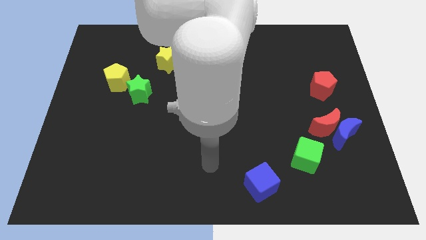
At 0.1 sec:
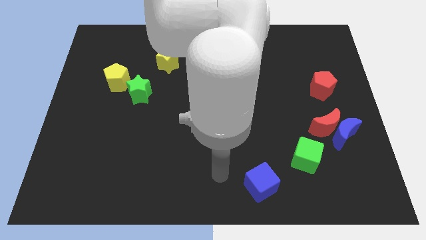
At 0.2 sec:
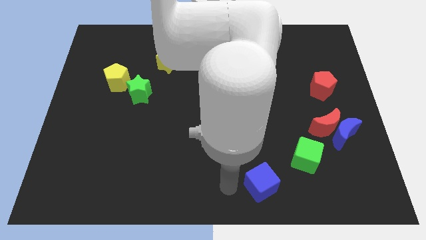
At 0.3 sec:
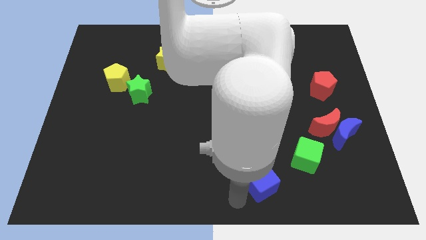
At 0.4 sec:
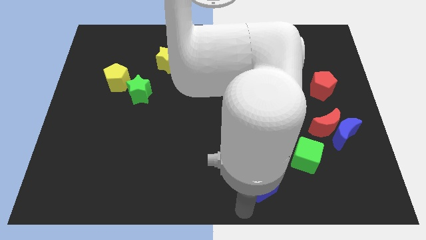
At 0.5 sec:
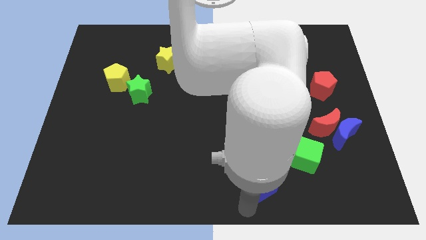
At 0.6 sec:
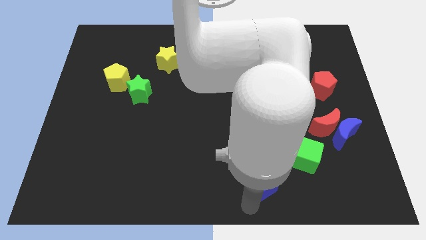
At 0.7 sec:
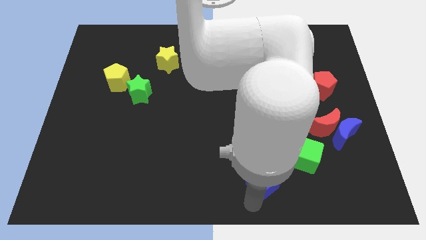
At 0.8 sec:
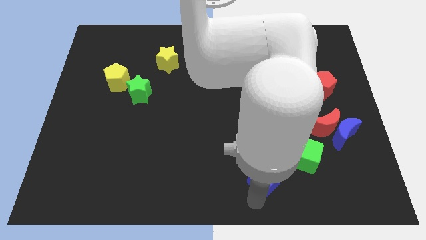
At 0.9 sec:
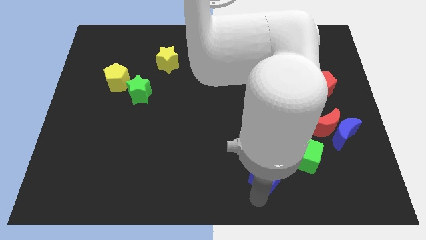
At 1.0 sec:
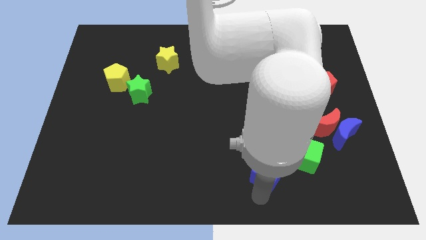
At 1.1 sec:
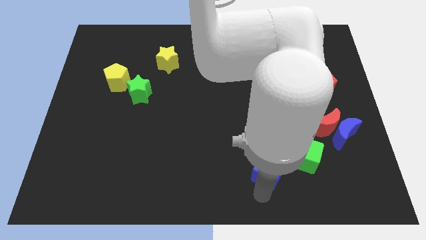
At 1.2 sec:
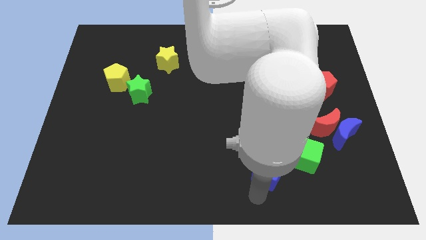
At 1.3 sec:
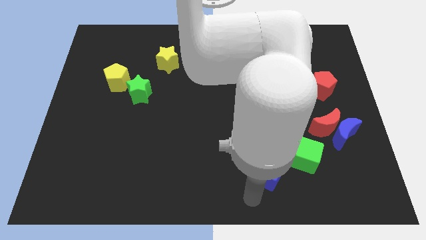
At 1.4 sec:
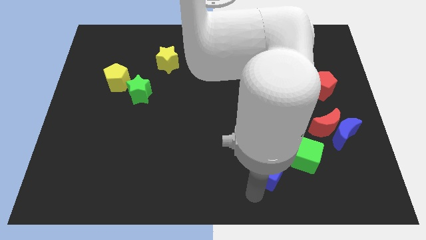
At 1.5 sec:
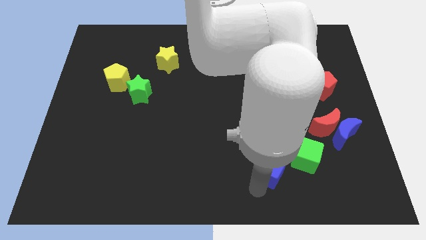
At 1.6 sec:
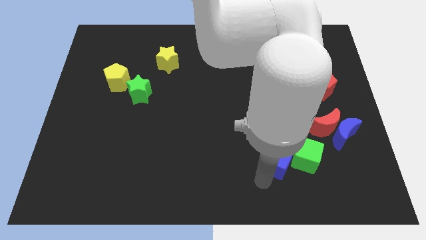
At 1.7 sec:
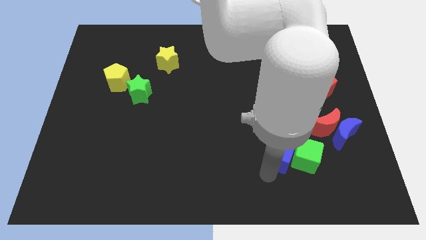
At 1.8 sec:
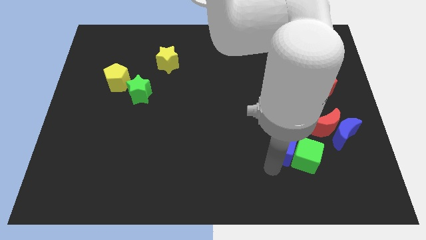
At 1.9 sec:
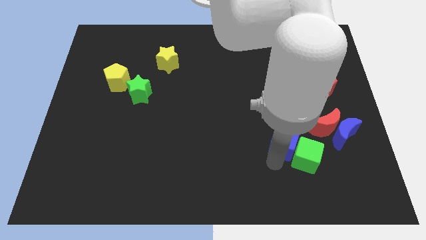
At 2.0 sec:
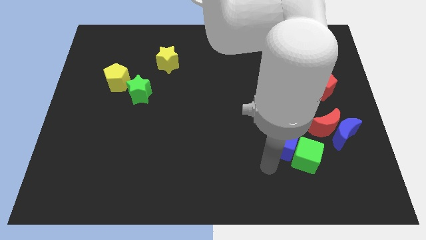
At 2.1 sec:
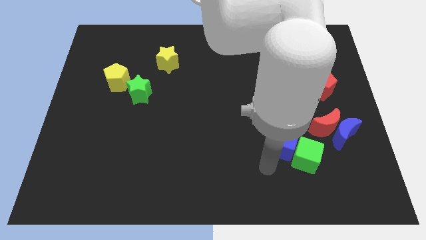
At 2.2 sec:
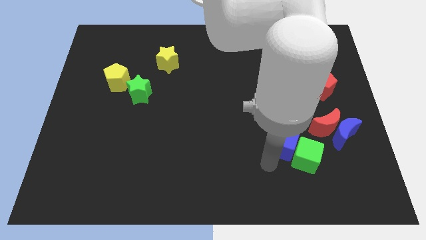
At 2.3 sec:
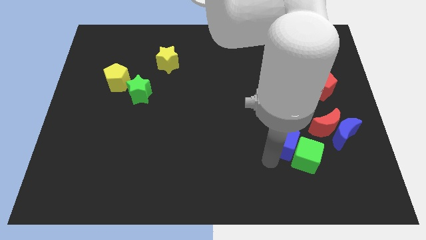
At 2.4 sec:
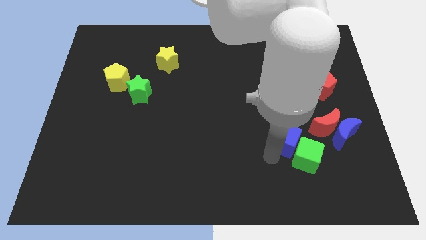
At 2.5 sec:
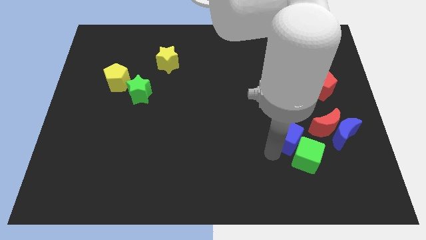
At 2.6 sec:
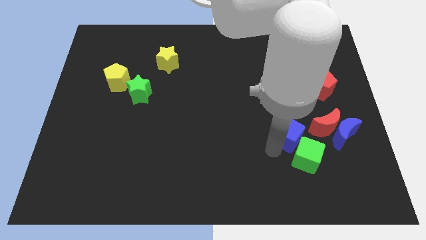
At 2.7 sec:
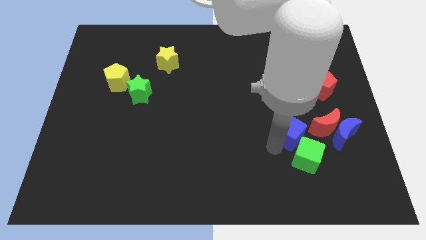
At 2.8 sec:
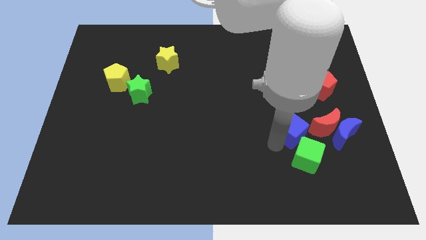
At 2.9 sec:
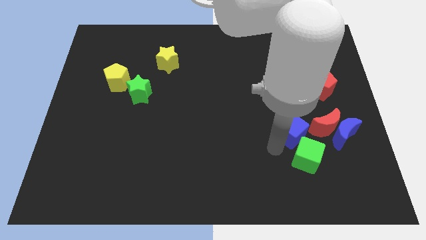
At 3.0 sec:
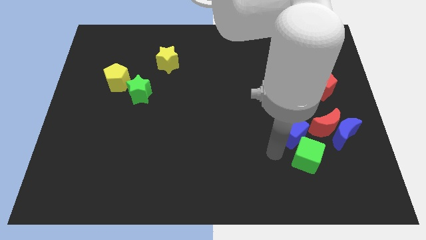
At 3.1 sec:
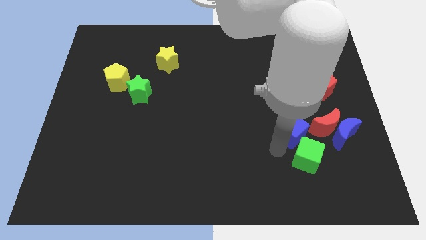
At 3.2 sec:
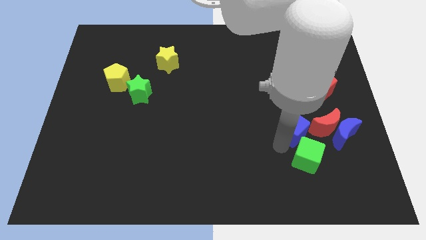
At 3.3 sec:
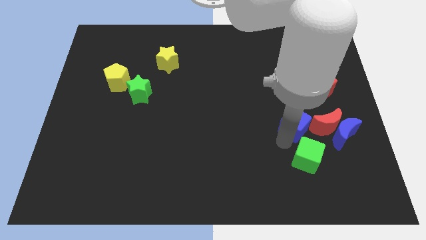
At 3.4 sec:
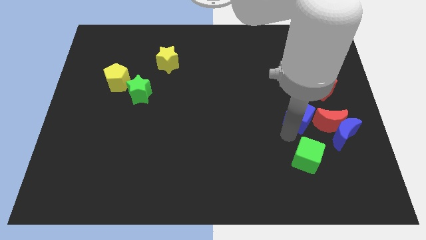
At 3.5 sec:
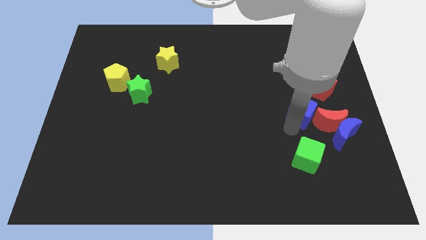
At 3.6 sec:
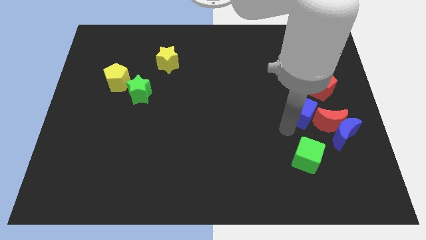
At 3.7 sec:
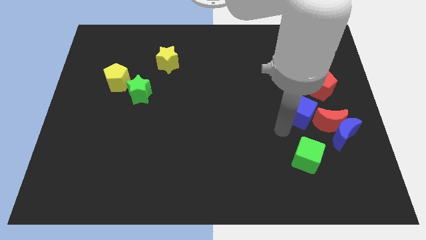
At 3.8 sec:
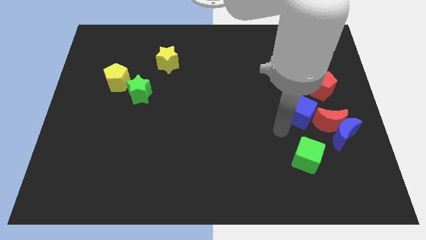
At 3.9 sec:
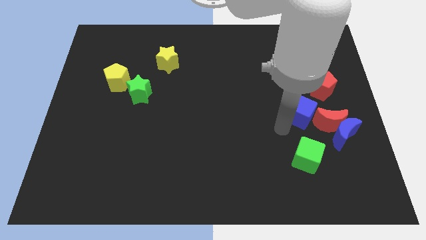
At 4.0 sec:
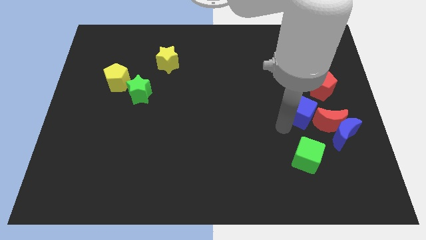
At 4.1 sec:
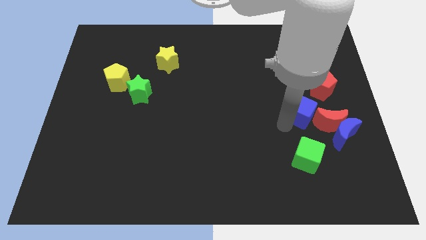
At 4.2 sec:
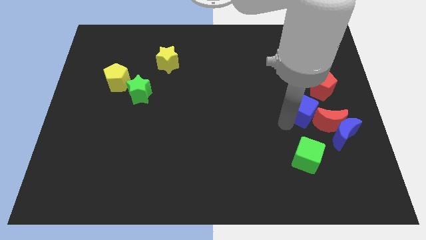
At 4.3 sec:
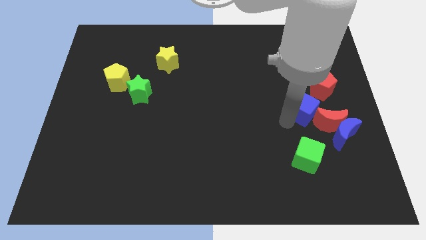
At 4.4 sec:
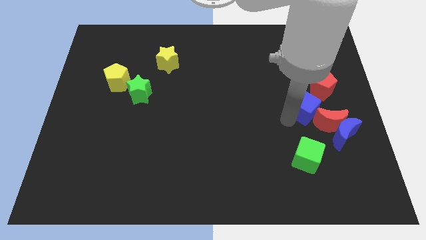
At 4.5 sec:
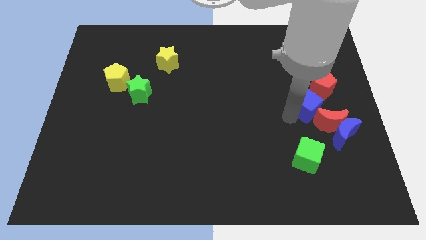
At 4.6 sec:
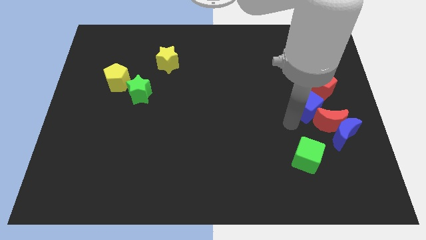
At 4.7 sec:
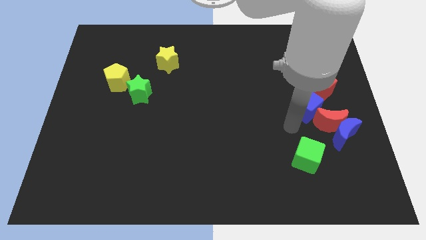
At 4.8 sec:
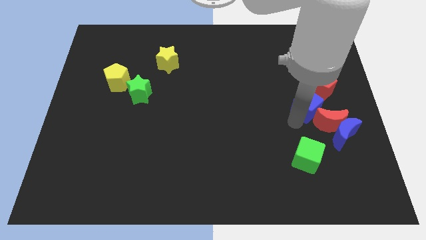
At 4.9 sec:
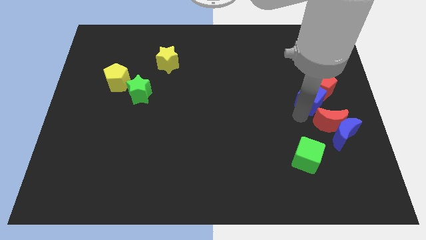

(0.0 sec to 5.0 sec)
move the blue cube to the red pentagon

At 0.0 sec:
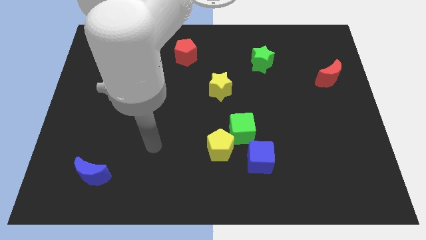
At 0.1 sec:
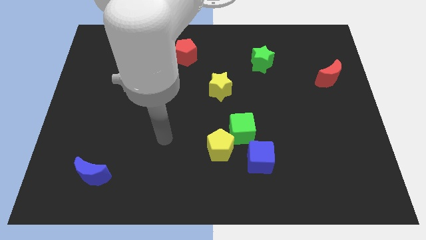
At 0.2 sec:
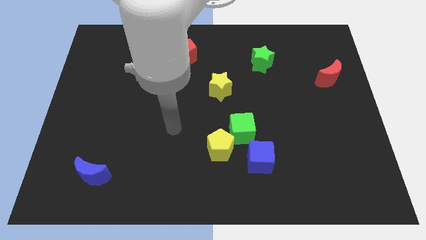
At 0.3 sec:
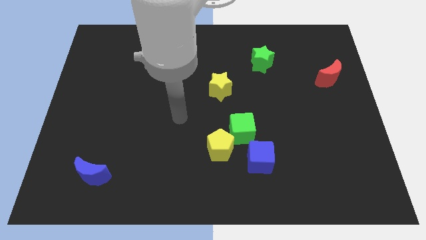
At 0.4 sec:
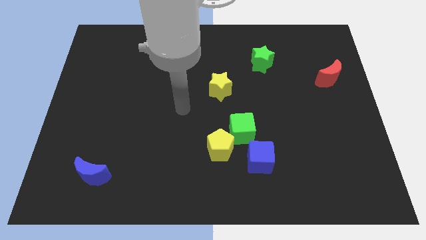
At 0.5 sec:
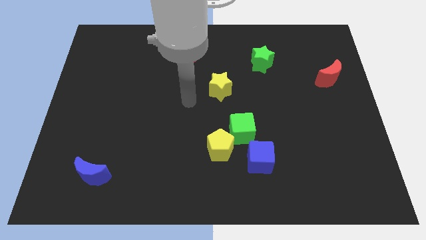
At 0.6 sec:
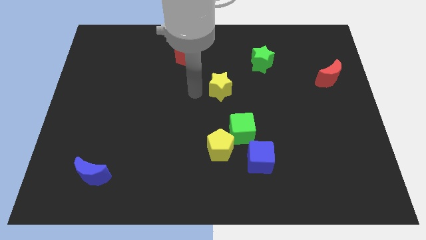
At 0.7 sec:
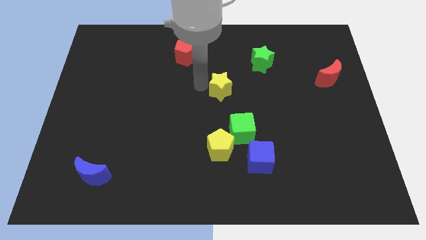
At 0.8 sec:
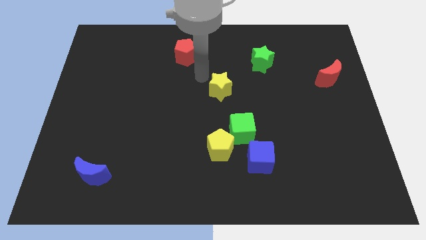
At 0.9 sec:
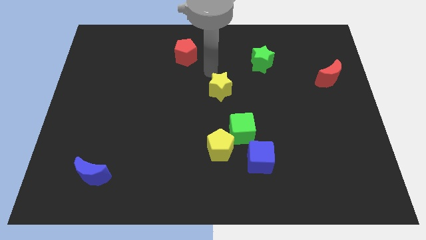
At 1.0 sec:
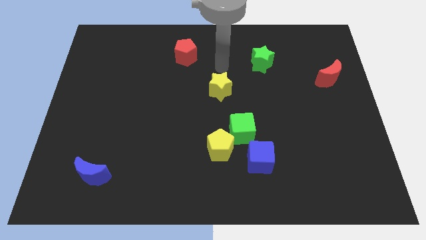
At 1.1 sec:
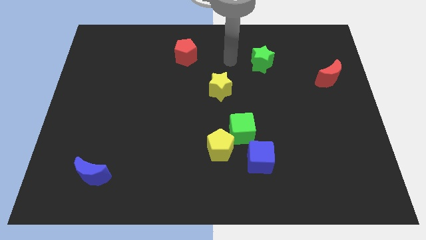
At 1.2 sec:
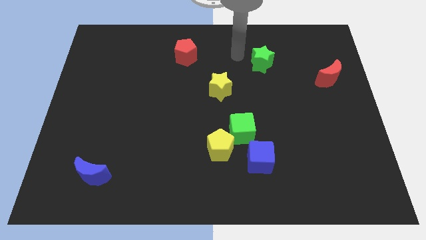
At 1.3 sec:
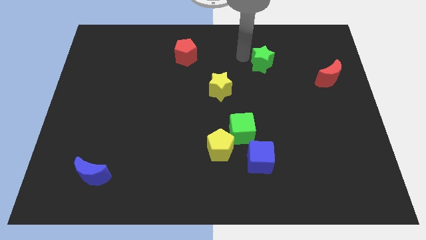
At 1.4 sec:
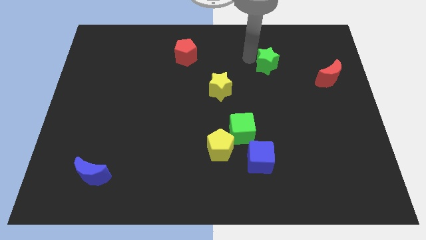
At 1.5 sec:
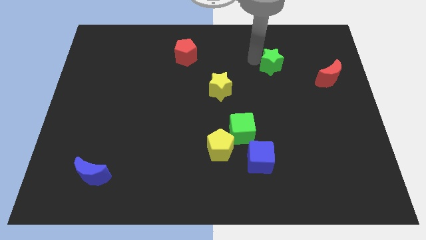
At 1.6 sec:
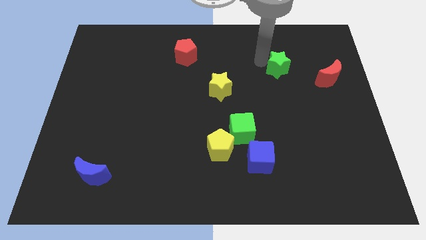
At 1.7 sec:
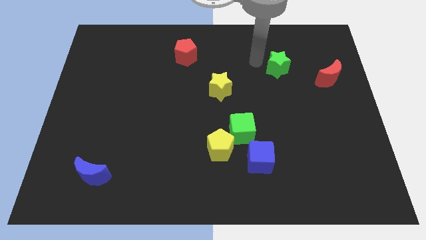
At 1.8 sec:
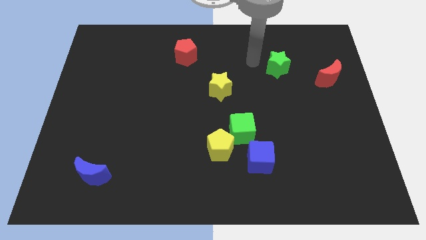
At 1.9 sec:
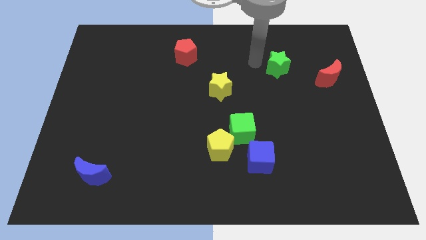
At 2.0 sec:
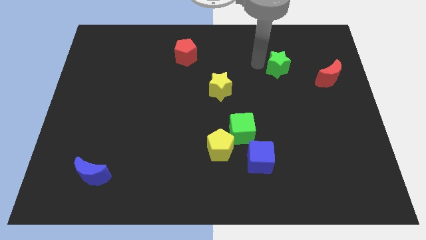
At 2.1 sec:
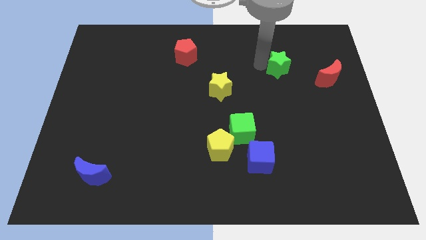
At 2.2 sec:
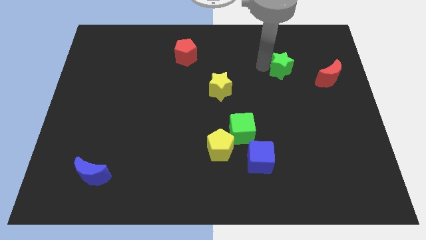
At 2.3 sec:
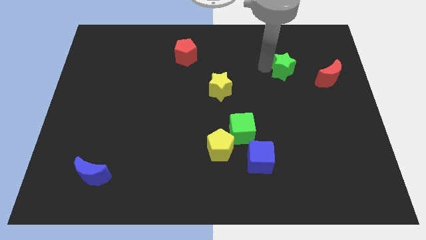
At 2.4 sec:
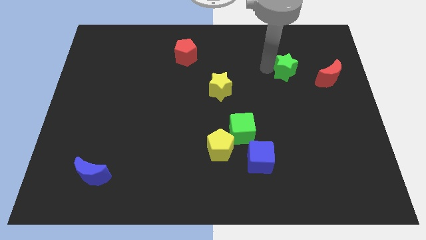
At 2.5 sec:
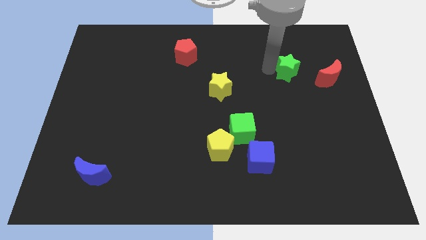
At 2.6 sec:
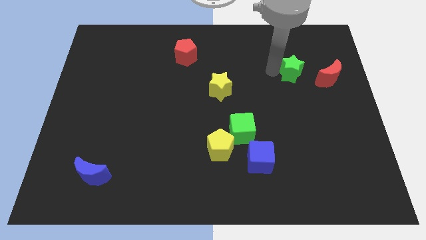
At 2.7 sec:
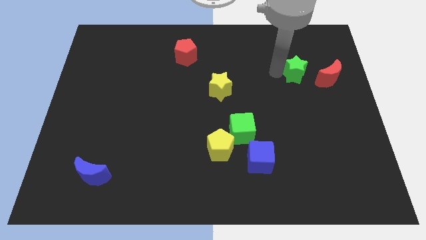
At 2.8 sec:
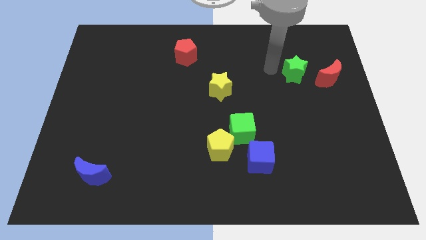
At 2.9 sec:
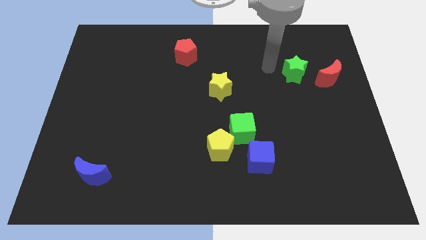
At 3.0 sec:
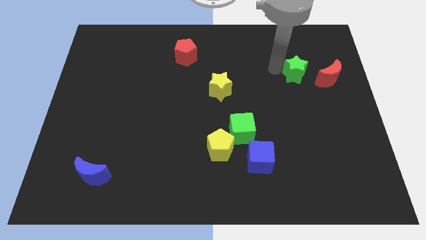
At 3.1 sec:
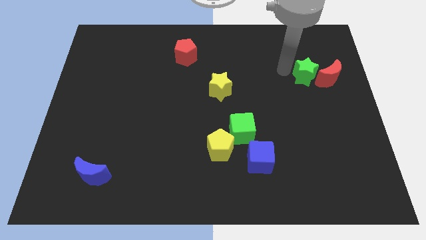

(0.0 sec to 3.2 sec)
slide the green star to the red moon
